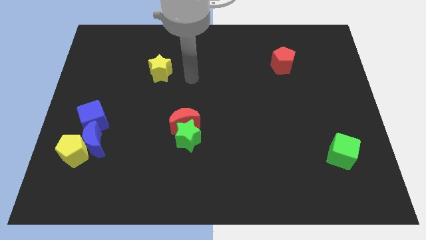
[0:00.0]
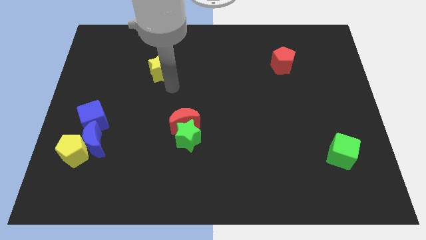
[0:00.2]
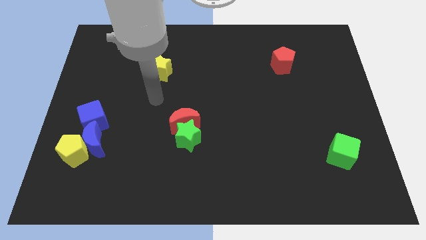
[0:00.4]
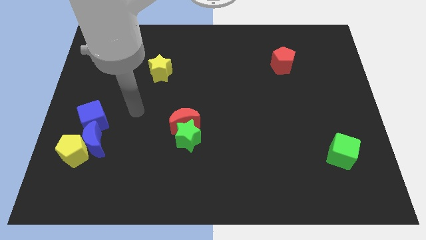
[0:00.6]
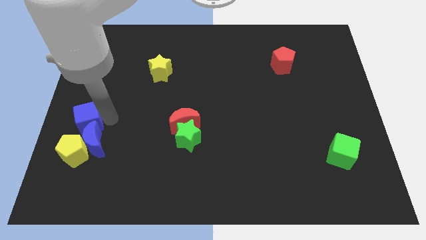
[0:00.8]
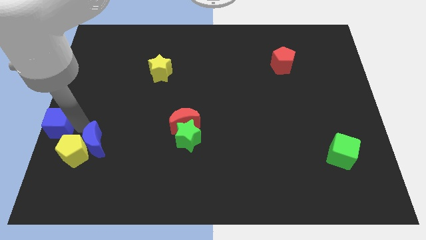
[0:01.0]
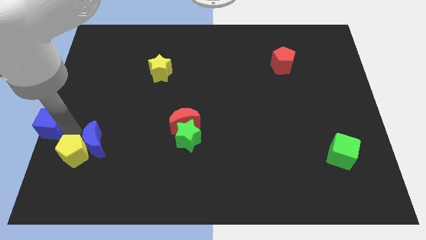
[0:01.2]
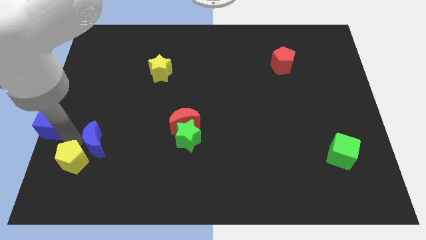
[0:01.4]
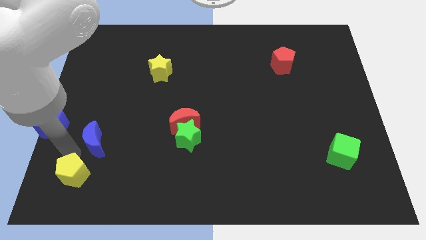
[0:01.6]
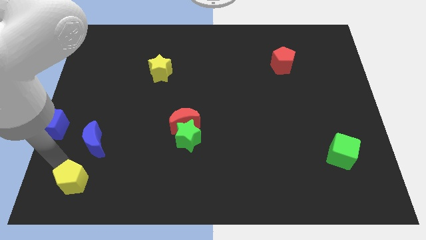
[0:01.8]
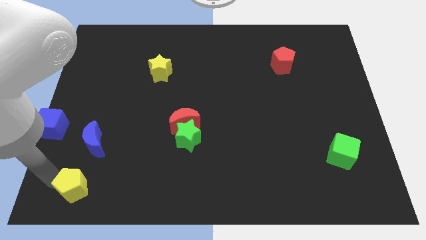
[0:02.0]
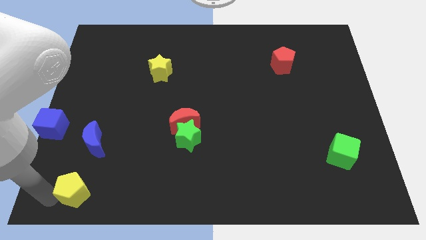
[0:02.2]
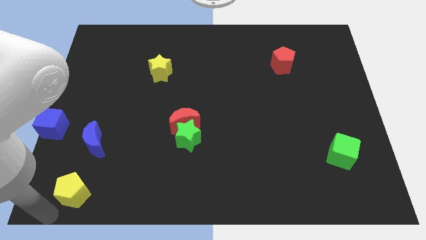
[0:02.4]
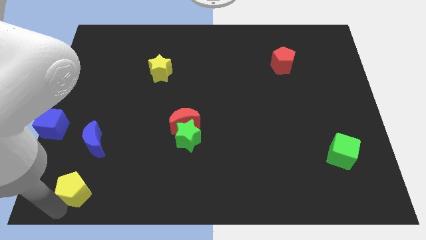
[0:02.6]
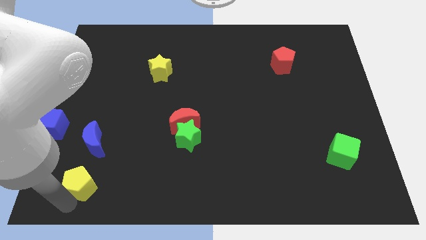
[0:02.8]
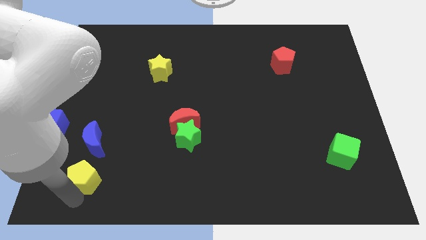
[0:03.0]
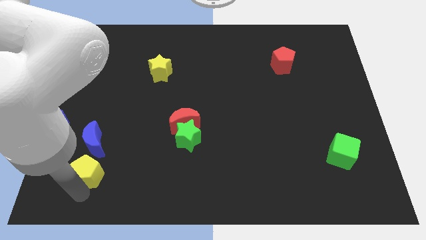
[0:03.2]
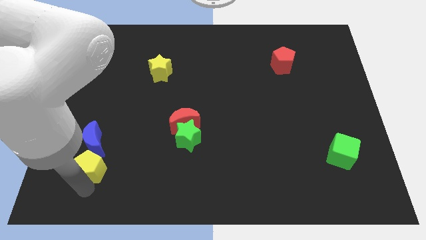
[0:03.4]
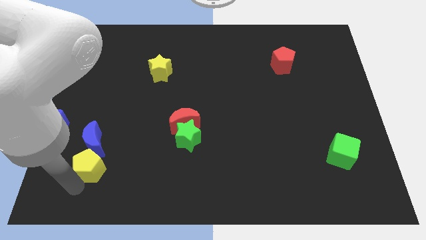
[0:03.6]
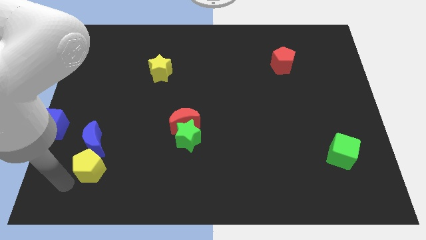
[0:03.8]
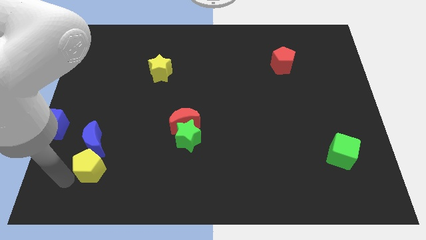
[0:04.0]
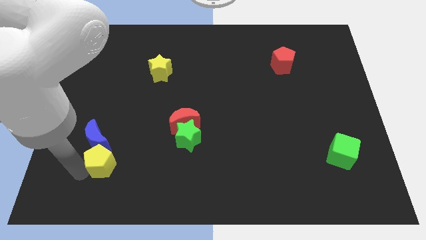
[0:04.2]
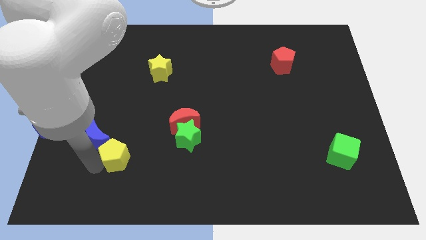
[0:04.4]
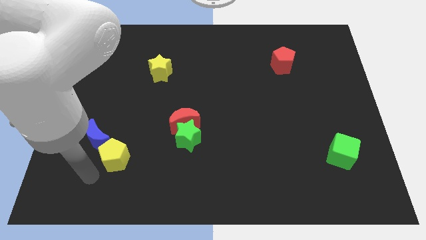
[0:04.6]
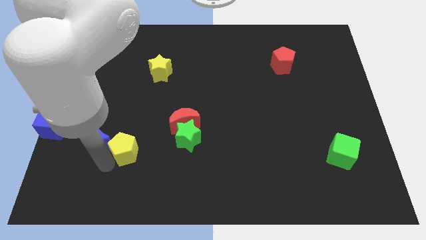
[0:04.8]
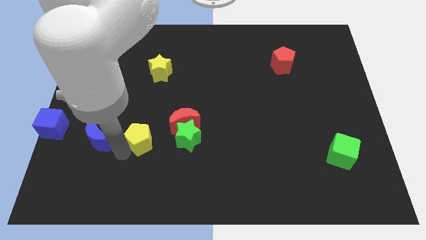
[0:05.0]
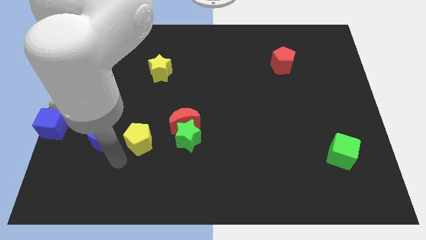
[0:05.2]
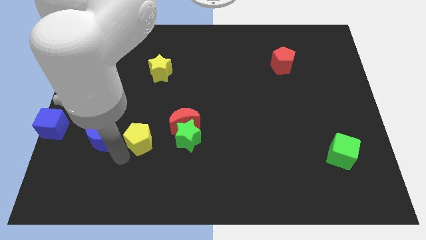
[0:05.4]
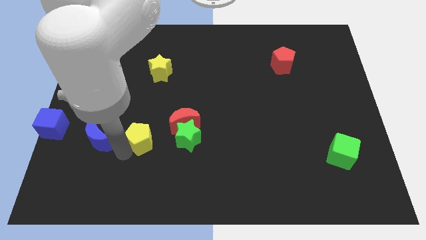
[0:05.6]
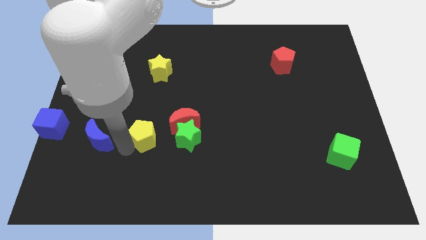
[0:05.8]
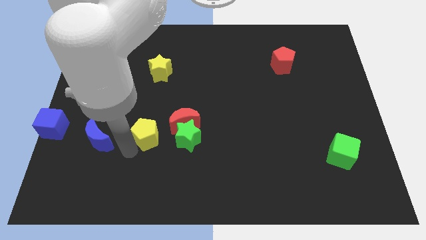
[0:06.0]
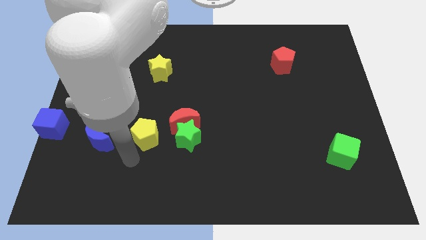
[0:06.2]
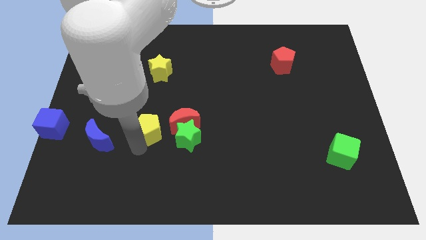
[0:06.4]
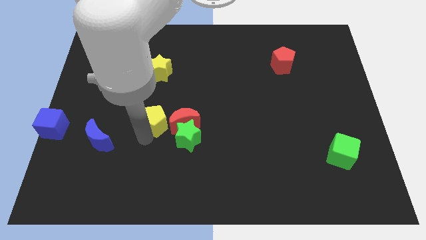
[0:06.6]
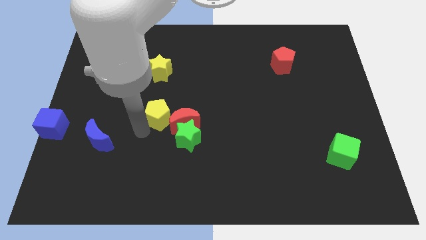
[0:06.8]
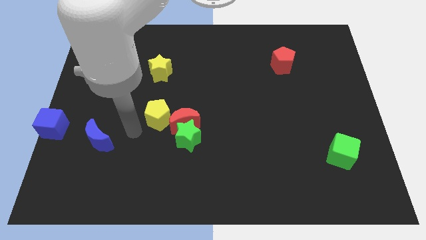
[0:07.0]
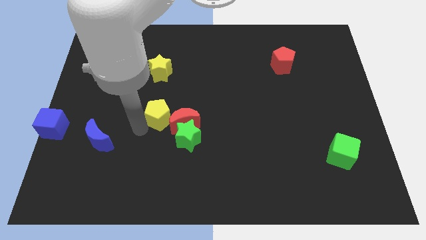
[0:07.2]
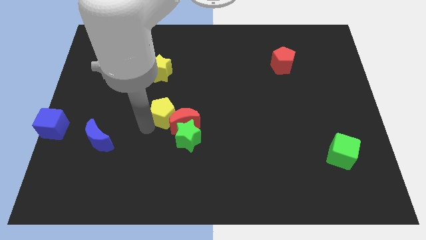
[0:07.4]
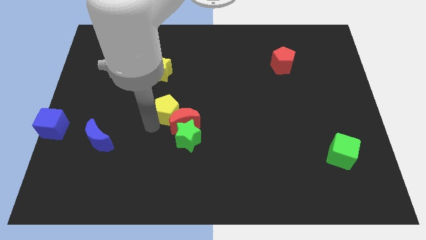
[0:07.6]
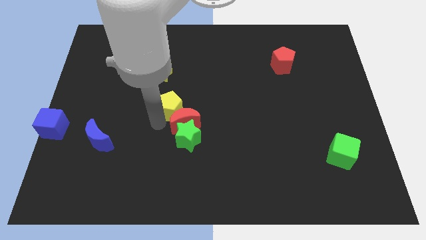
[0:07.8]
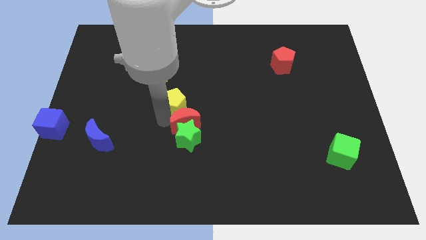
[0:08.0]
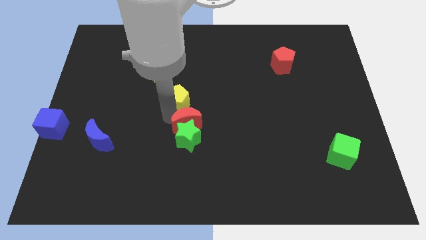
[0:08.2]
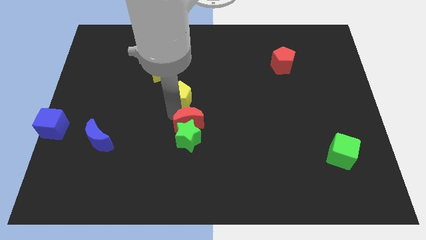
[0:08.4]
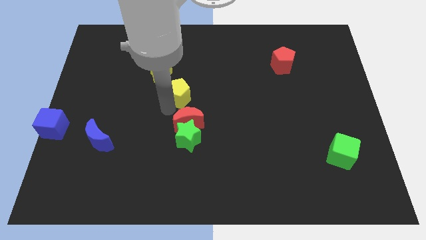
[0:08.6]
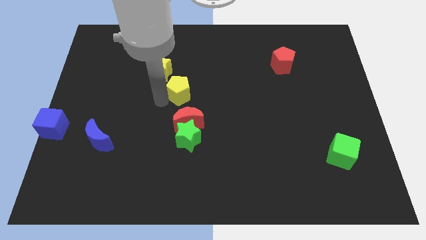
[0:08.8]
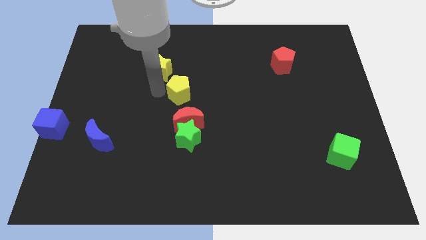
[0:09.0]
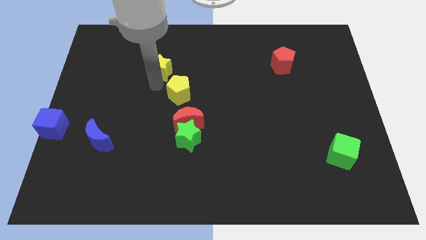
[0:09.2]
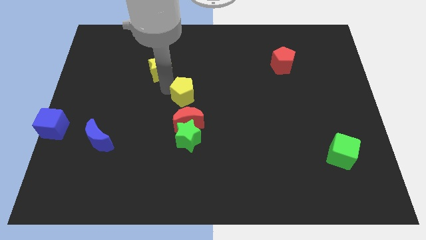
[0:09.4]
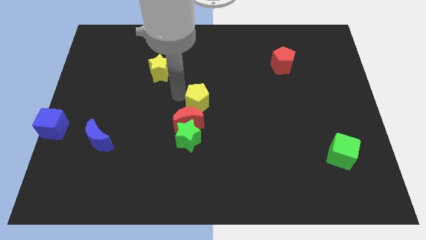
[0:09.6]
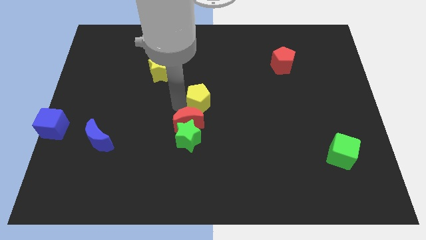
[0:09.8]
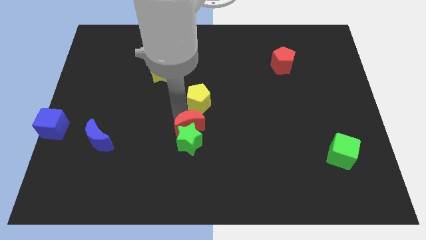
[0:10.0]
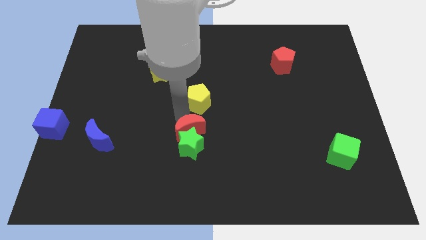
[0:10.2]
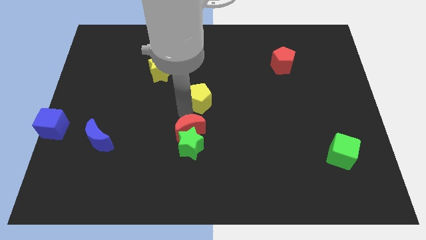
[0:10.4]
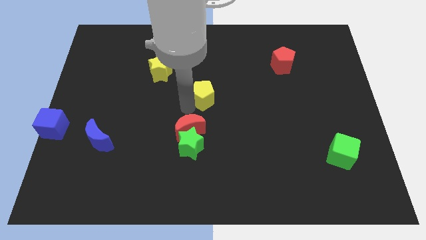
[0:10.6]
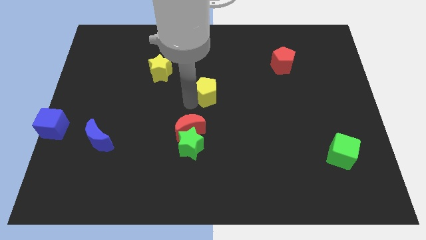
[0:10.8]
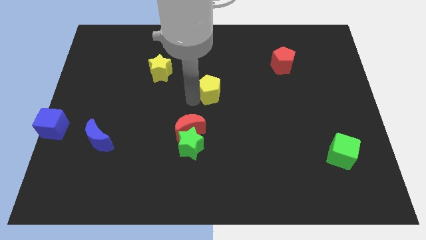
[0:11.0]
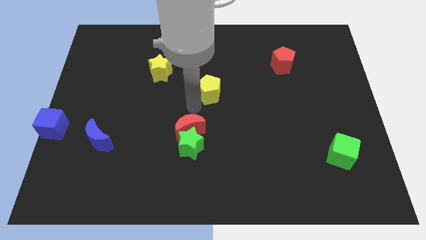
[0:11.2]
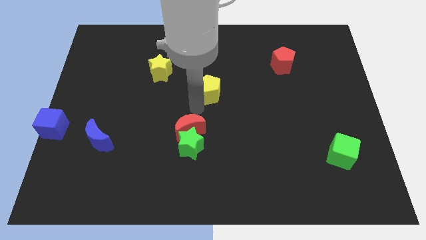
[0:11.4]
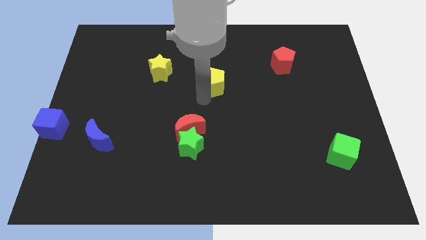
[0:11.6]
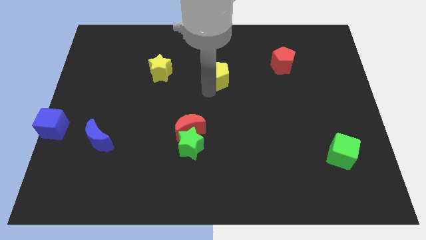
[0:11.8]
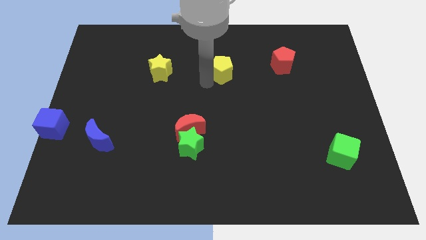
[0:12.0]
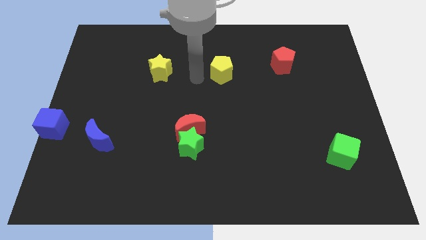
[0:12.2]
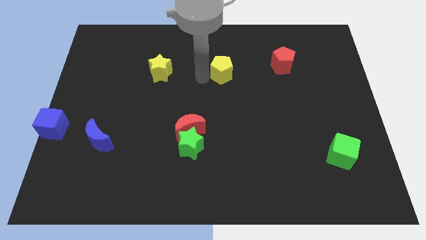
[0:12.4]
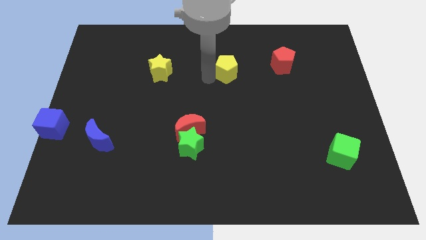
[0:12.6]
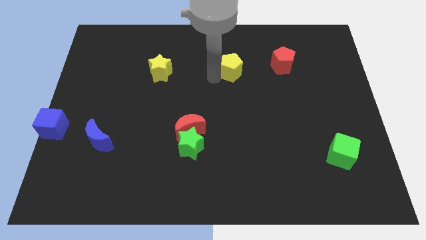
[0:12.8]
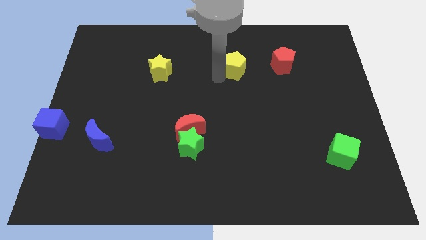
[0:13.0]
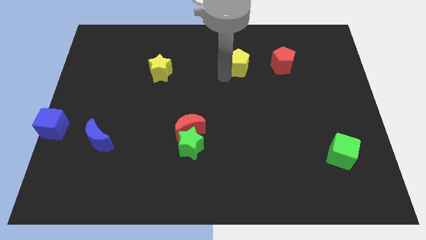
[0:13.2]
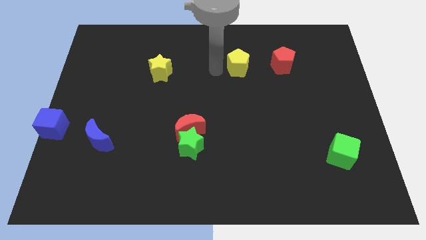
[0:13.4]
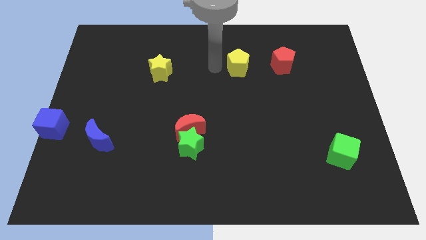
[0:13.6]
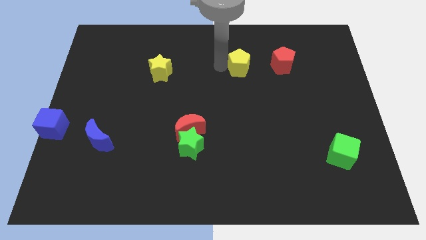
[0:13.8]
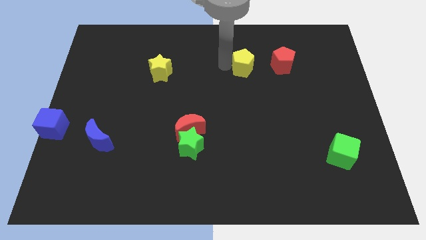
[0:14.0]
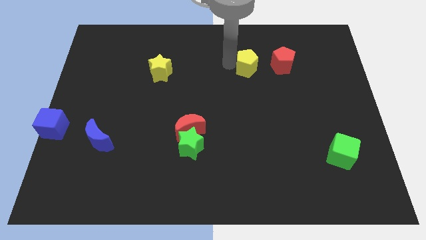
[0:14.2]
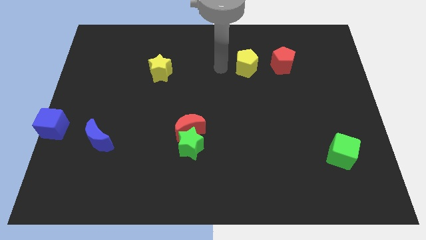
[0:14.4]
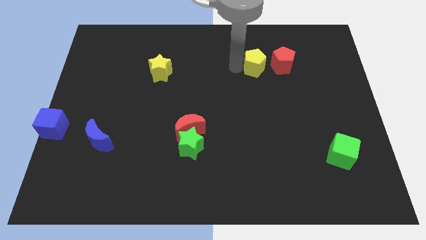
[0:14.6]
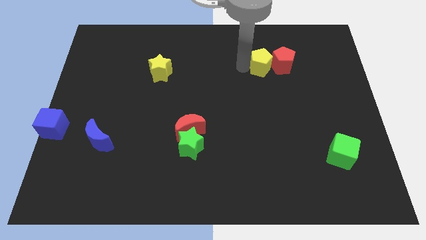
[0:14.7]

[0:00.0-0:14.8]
move the yellow pentagon to the red pentagon
